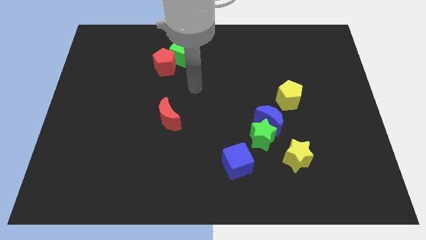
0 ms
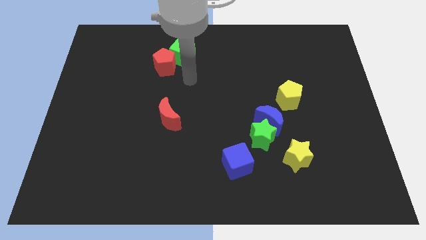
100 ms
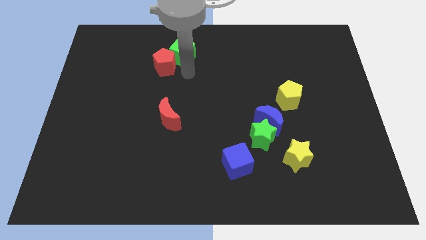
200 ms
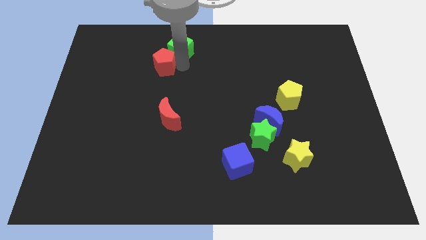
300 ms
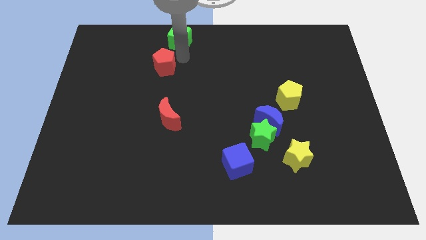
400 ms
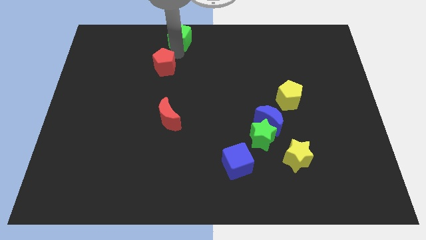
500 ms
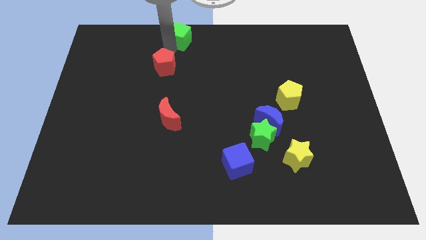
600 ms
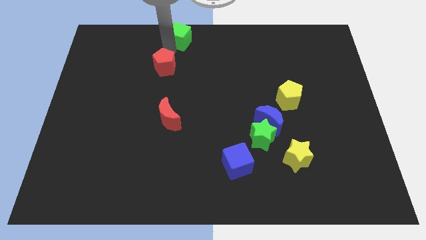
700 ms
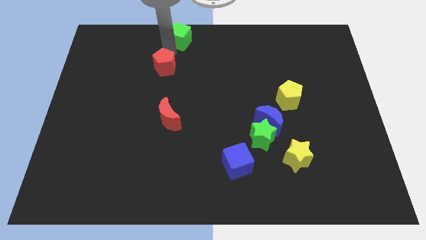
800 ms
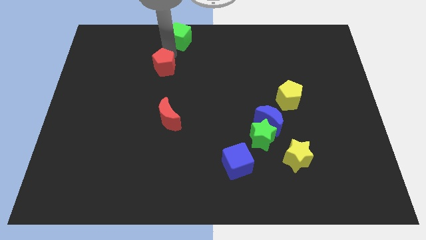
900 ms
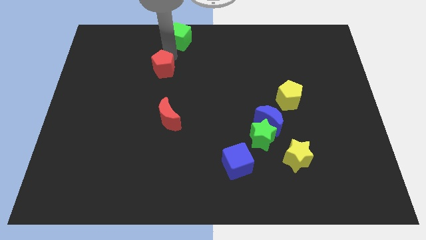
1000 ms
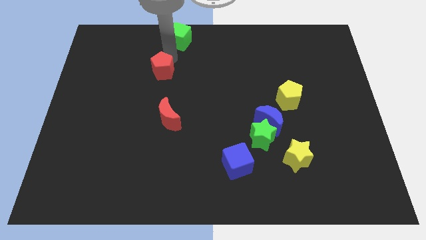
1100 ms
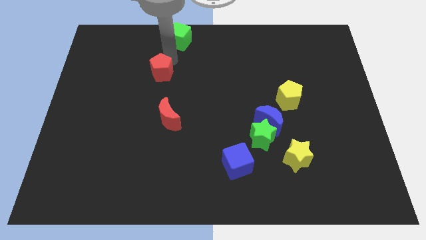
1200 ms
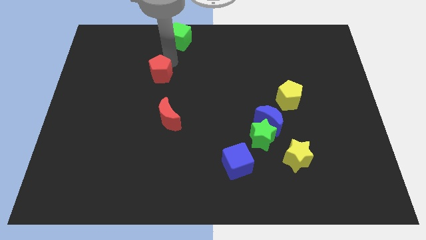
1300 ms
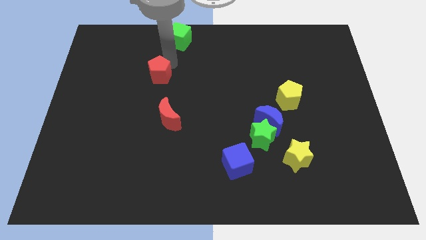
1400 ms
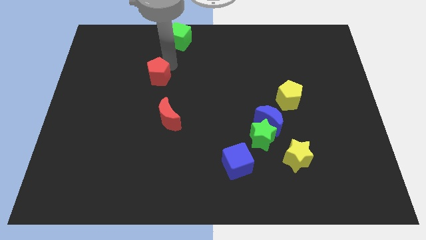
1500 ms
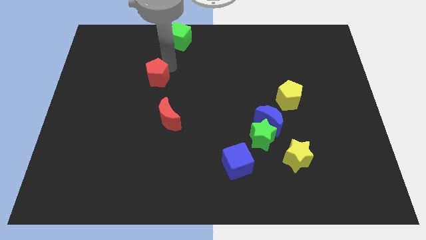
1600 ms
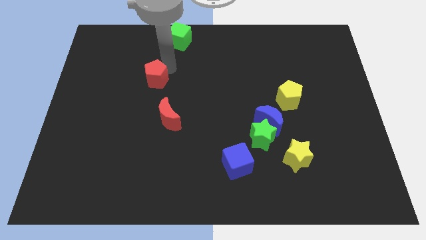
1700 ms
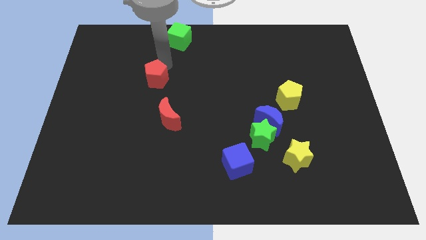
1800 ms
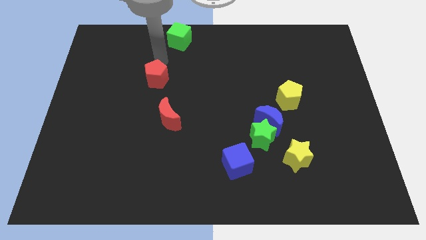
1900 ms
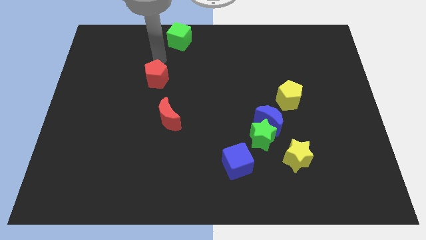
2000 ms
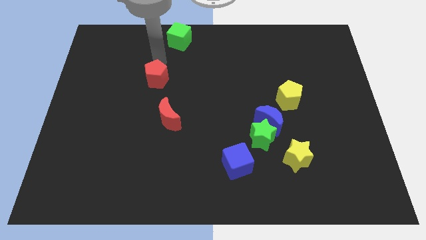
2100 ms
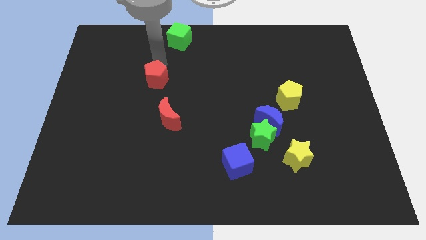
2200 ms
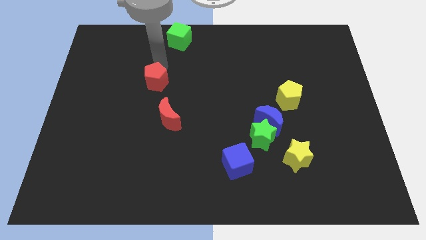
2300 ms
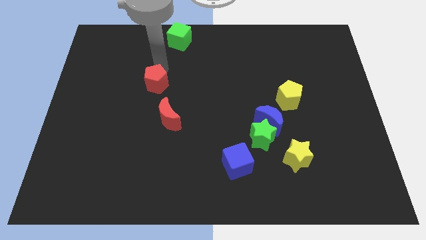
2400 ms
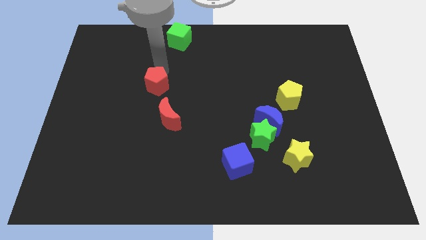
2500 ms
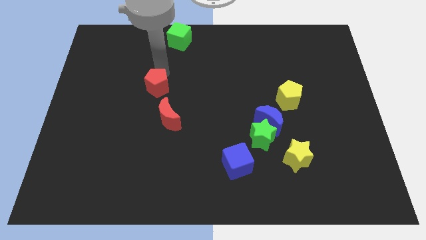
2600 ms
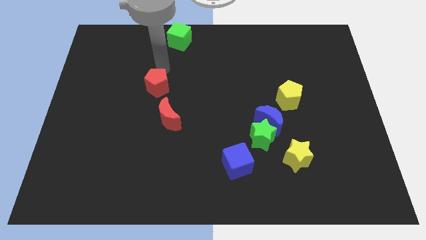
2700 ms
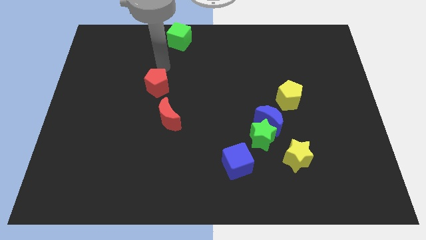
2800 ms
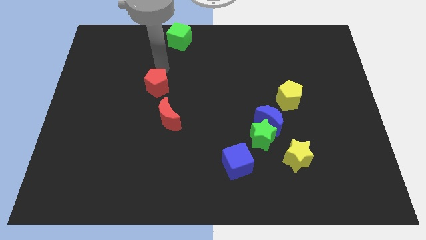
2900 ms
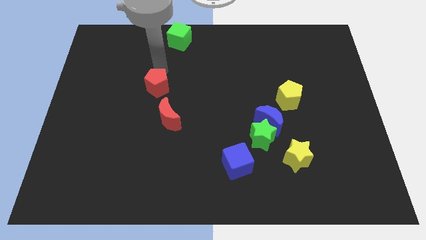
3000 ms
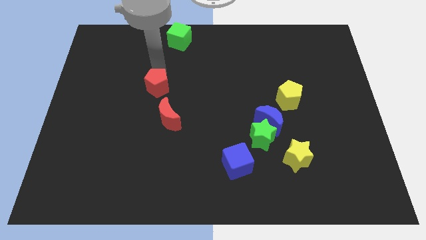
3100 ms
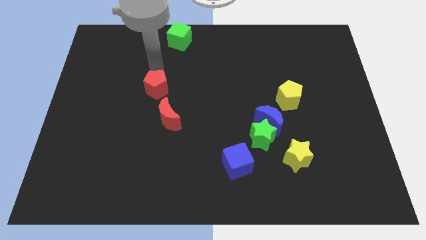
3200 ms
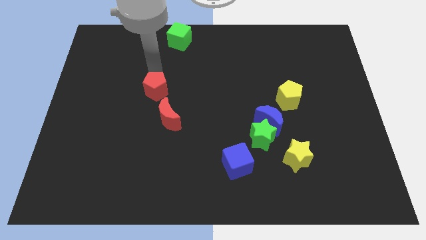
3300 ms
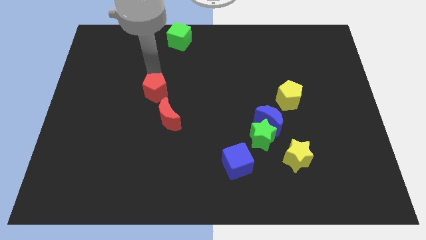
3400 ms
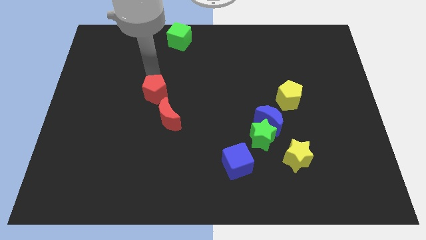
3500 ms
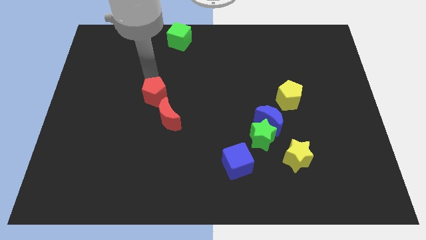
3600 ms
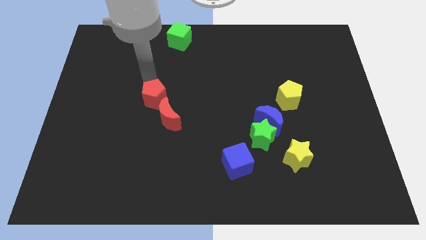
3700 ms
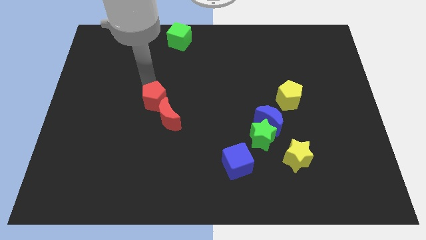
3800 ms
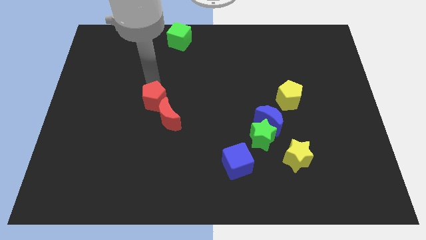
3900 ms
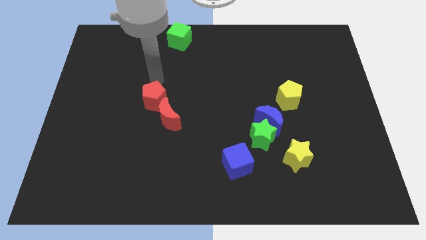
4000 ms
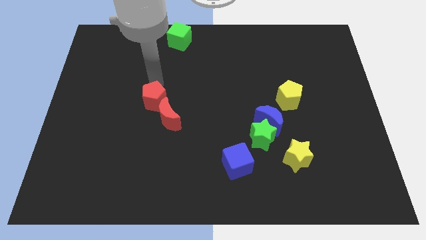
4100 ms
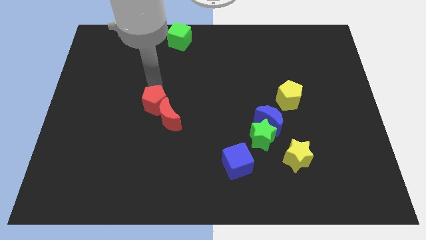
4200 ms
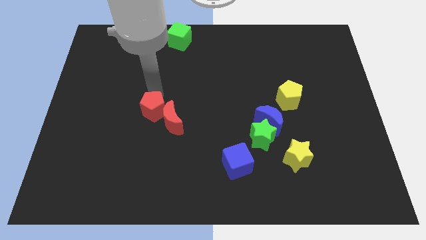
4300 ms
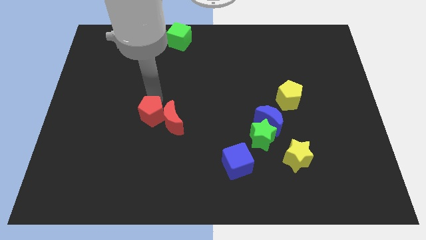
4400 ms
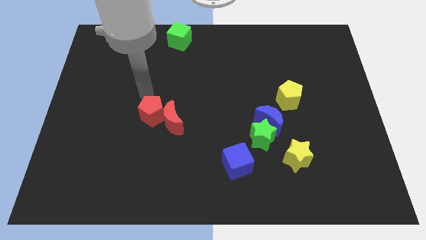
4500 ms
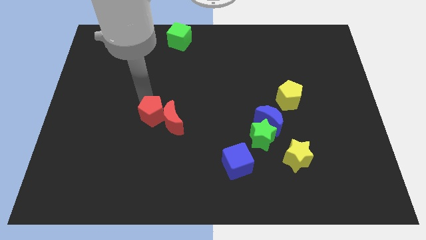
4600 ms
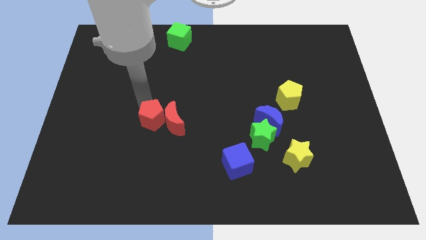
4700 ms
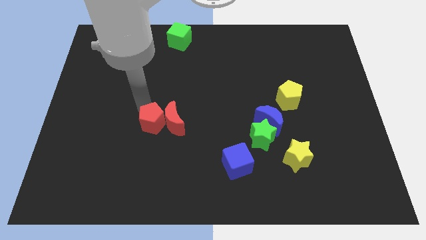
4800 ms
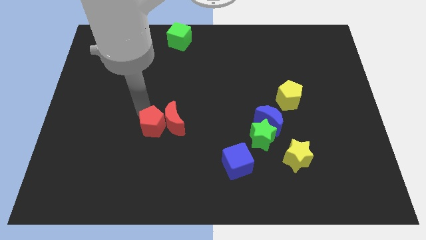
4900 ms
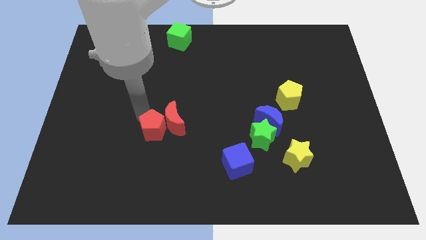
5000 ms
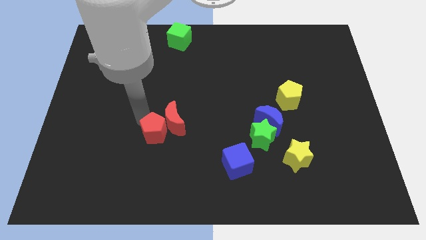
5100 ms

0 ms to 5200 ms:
move the red pentagon to the bottom side of the red moon

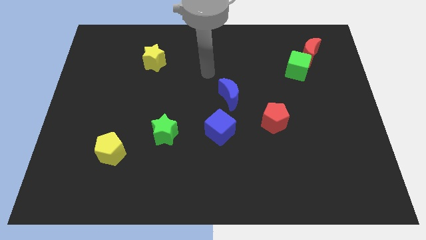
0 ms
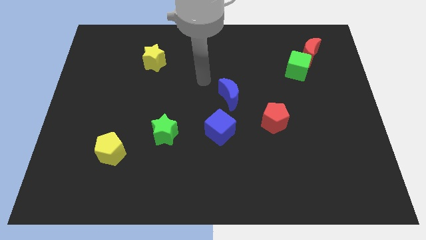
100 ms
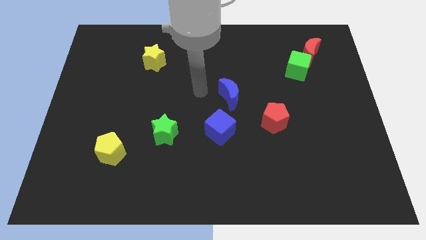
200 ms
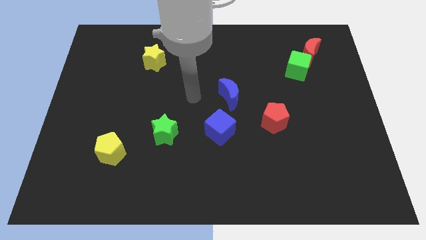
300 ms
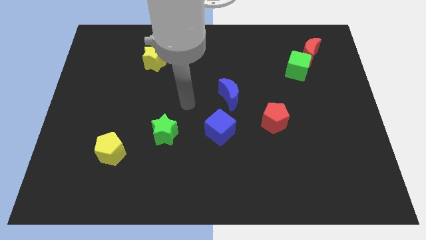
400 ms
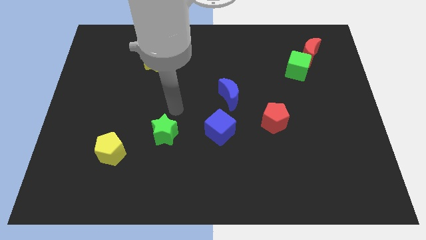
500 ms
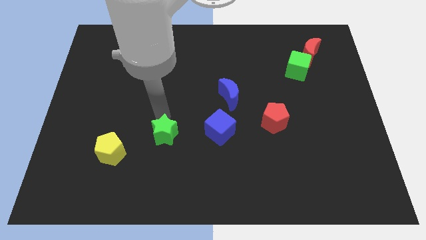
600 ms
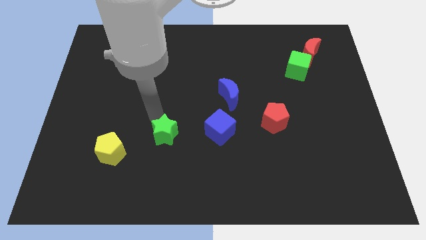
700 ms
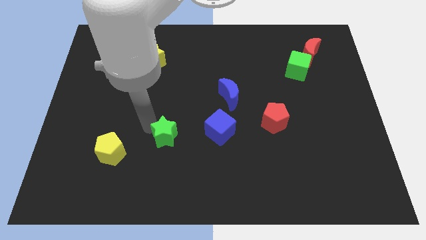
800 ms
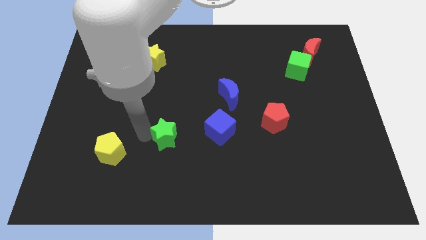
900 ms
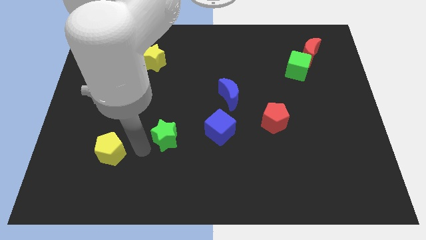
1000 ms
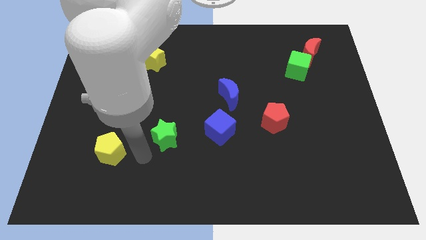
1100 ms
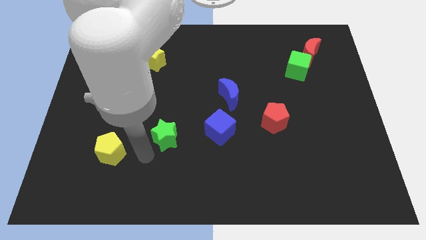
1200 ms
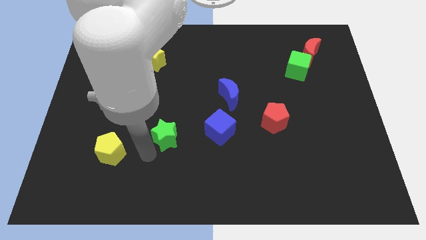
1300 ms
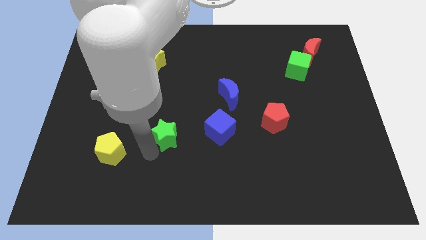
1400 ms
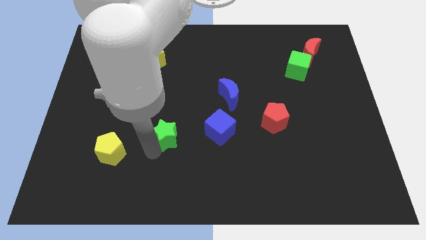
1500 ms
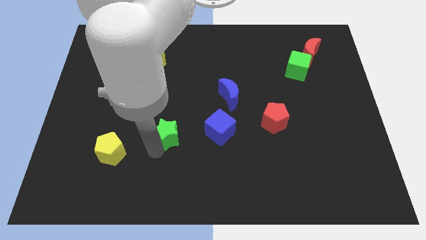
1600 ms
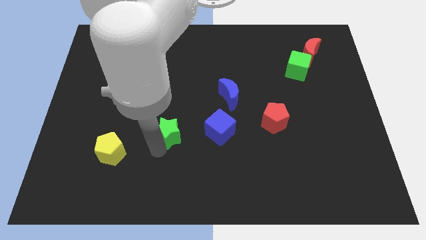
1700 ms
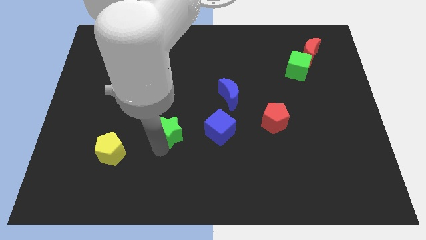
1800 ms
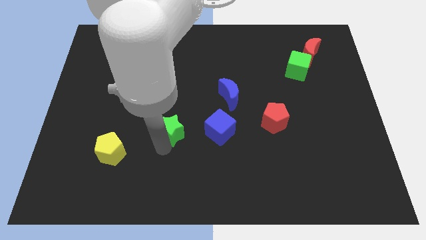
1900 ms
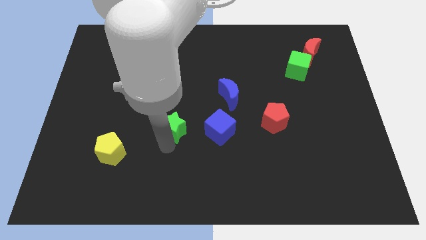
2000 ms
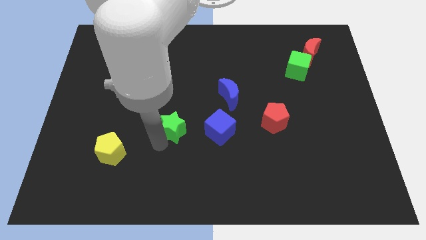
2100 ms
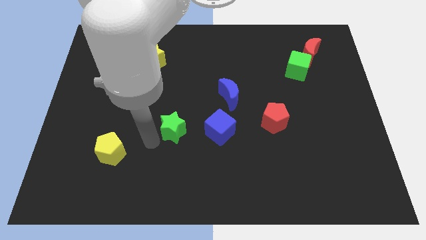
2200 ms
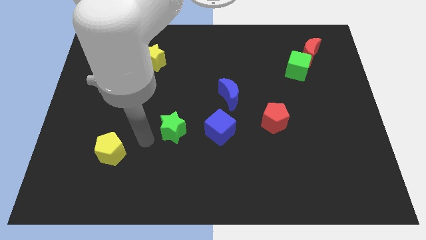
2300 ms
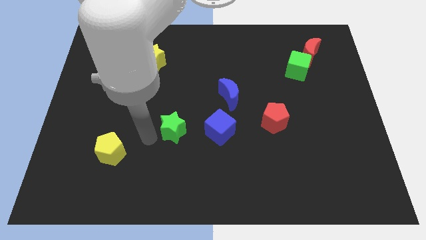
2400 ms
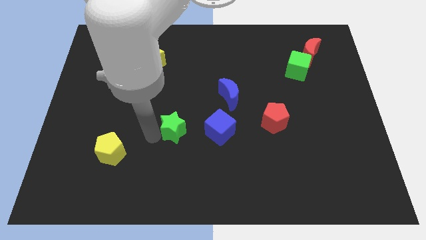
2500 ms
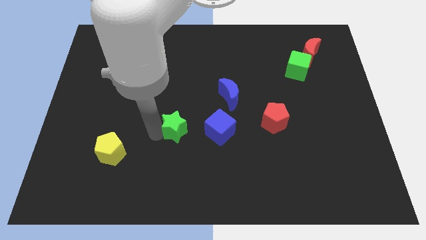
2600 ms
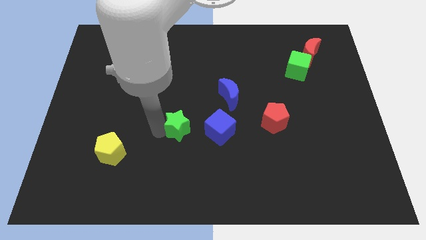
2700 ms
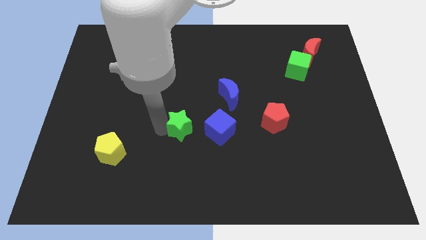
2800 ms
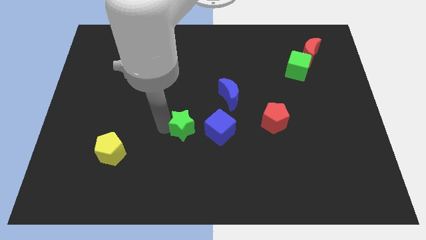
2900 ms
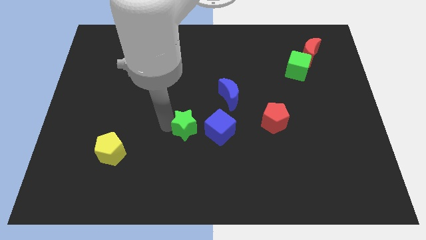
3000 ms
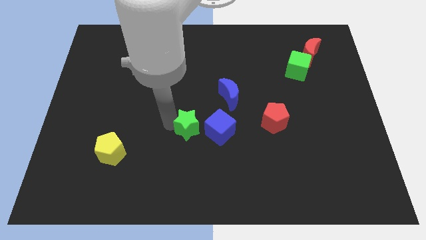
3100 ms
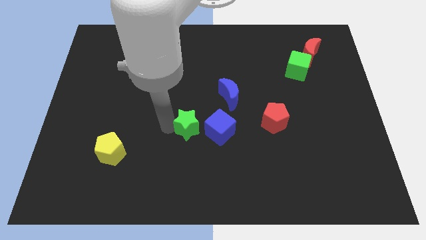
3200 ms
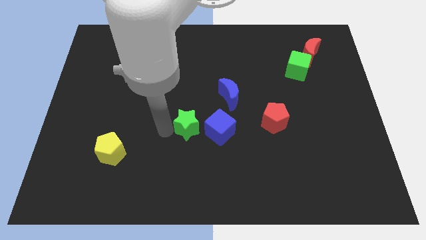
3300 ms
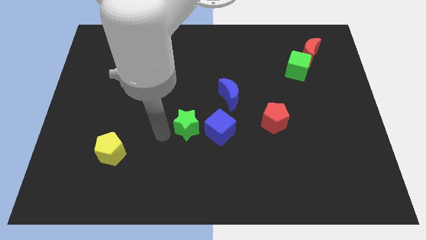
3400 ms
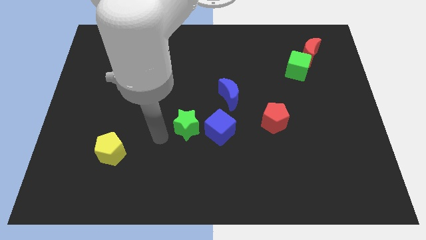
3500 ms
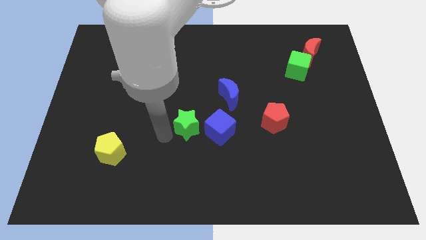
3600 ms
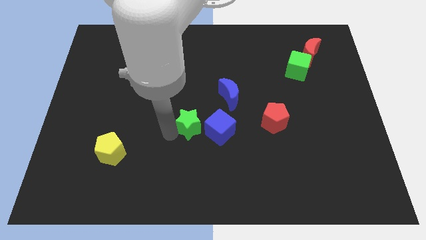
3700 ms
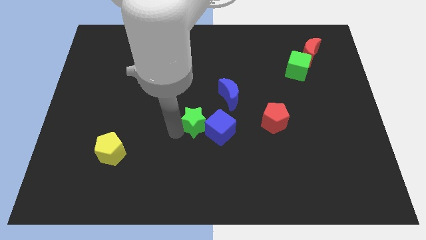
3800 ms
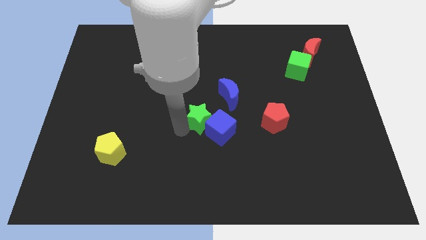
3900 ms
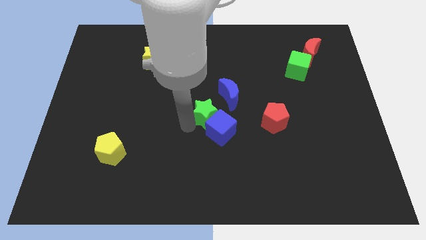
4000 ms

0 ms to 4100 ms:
move the green star just left of the red pentagon
